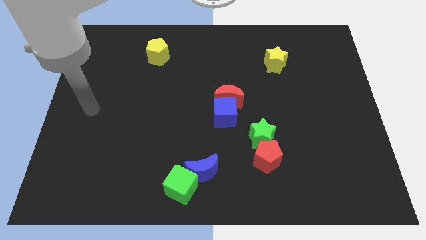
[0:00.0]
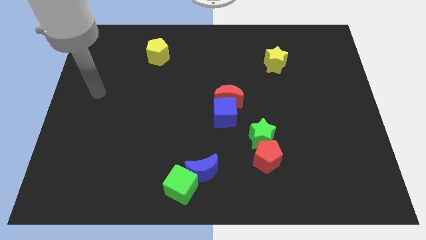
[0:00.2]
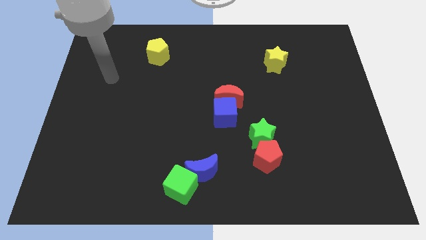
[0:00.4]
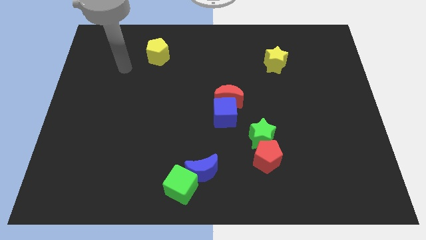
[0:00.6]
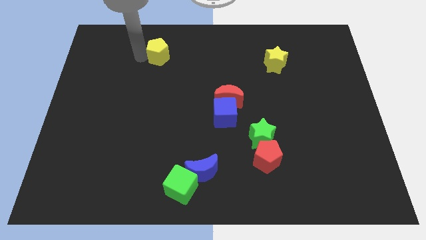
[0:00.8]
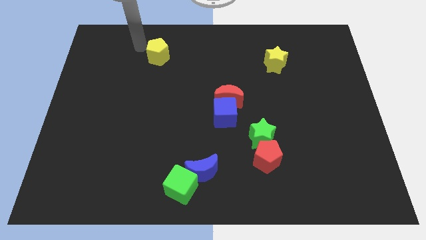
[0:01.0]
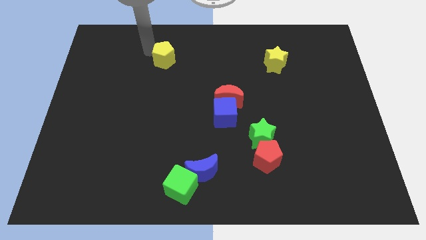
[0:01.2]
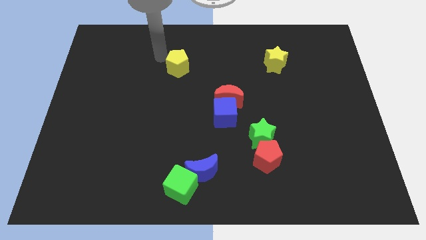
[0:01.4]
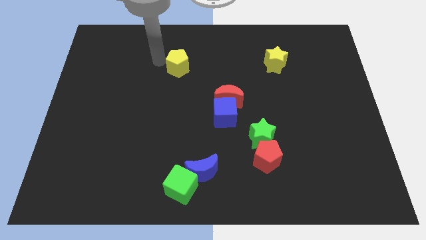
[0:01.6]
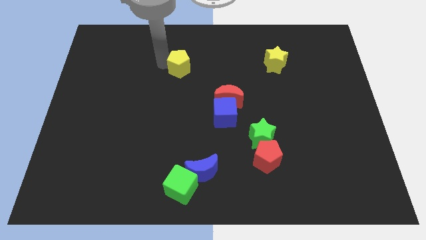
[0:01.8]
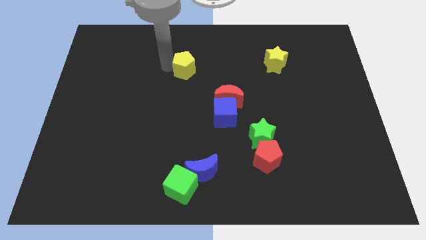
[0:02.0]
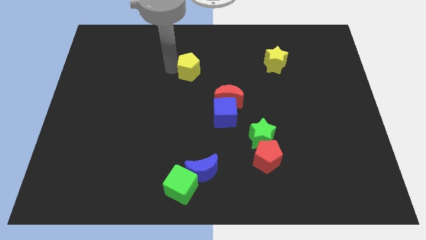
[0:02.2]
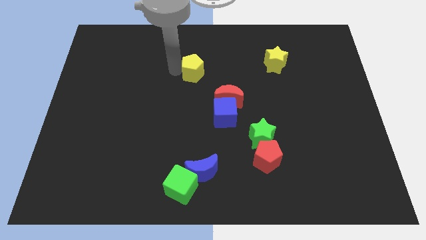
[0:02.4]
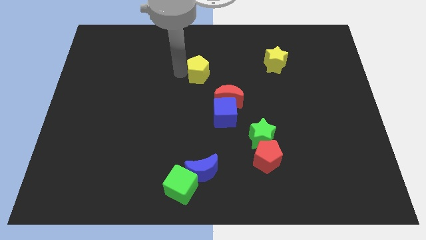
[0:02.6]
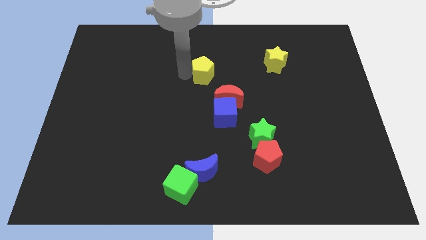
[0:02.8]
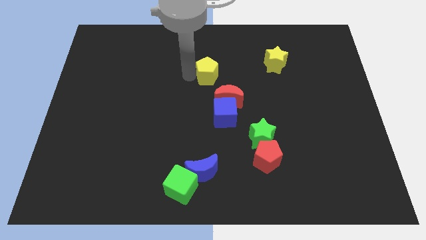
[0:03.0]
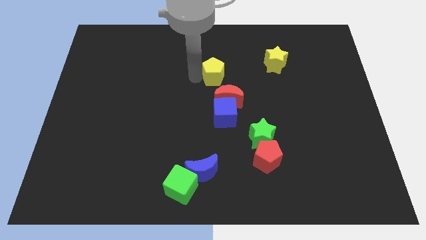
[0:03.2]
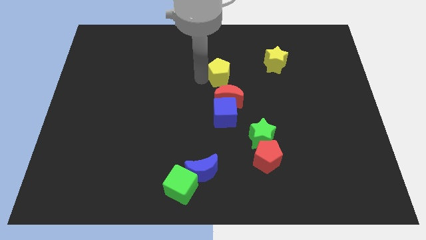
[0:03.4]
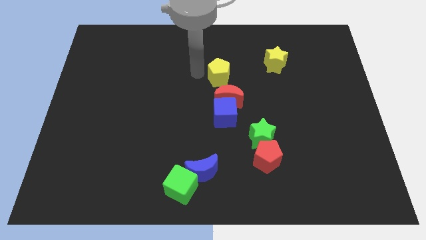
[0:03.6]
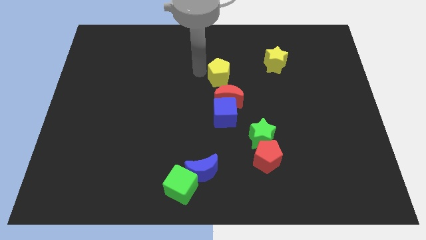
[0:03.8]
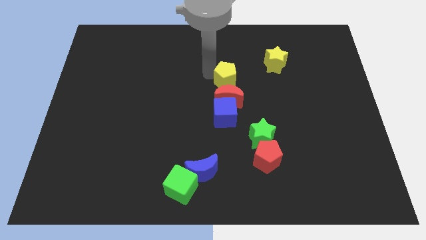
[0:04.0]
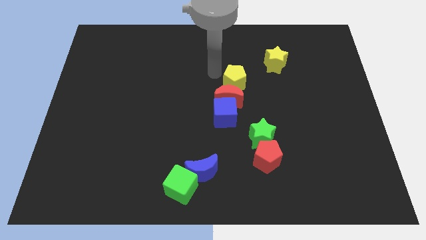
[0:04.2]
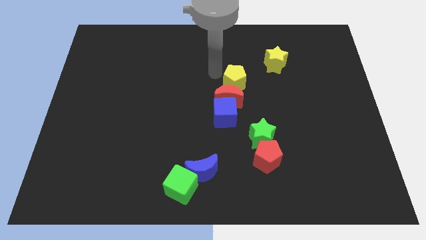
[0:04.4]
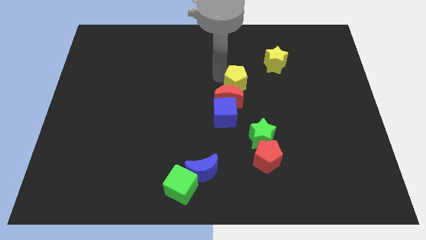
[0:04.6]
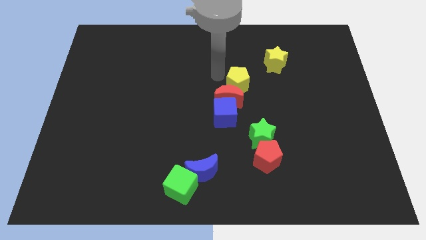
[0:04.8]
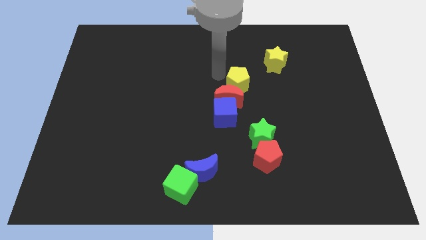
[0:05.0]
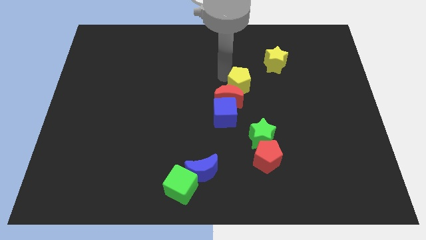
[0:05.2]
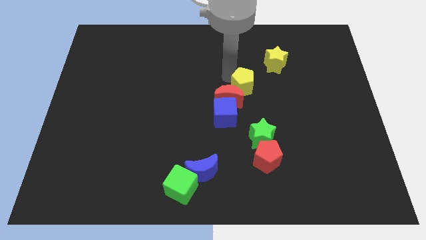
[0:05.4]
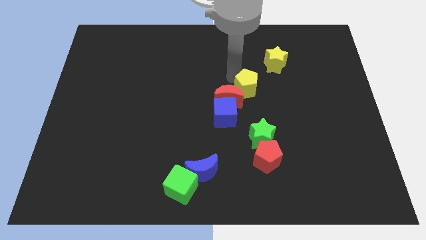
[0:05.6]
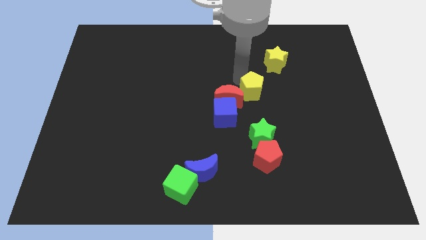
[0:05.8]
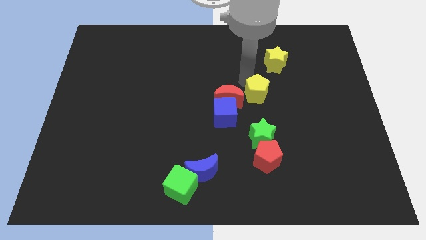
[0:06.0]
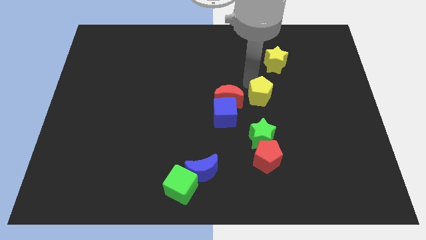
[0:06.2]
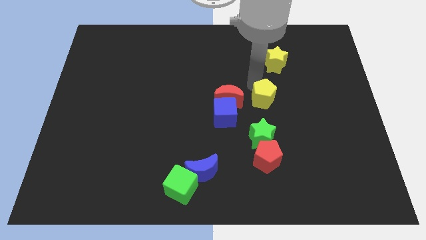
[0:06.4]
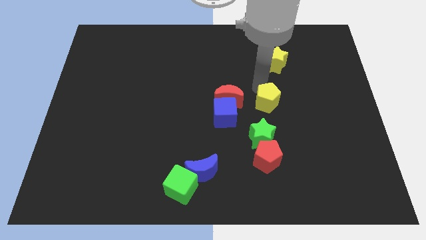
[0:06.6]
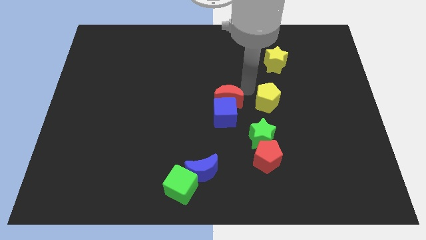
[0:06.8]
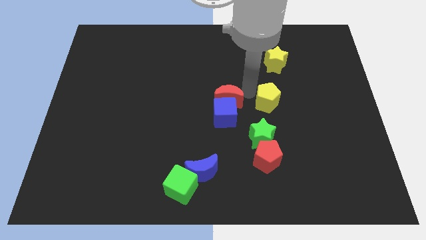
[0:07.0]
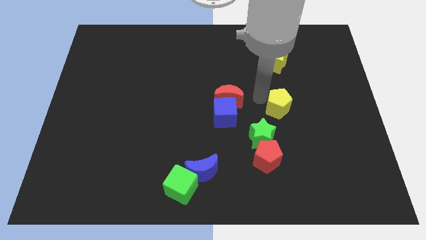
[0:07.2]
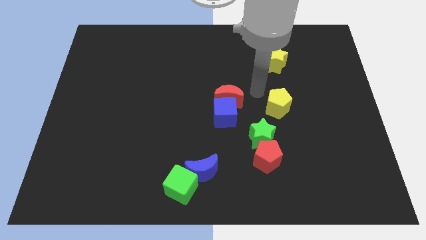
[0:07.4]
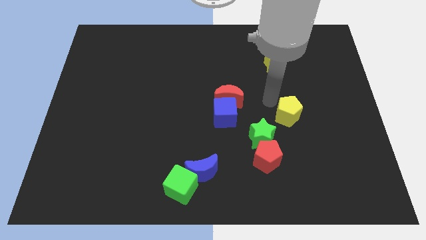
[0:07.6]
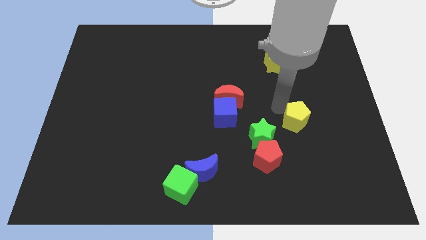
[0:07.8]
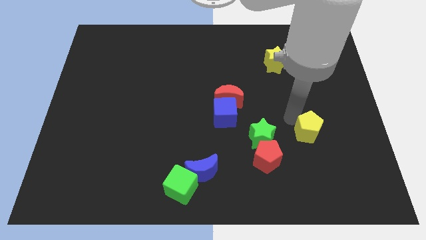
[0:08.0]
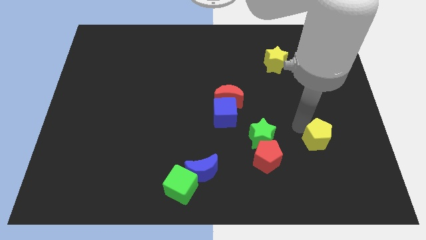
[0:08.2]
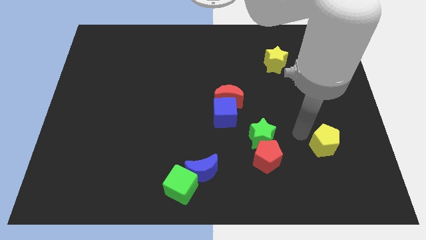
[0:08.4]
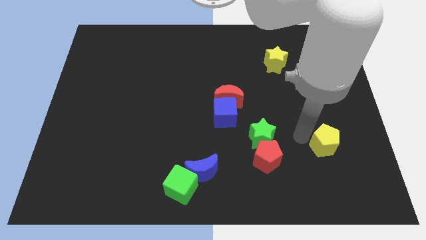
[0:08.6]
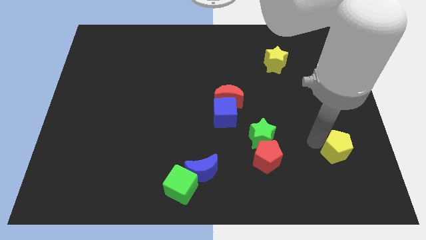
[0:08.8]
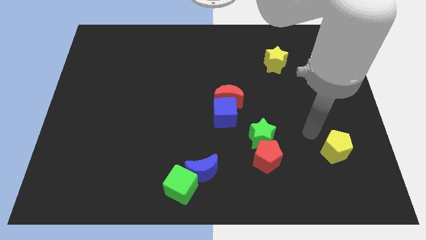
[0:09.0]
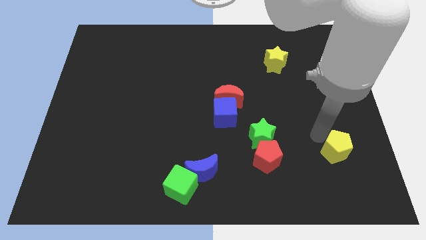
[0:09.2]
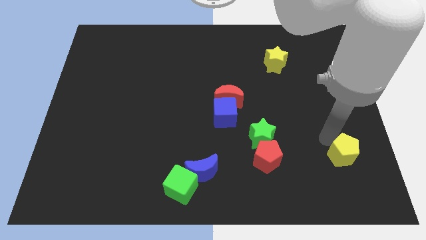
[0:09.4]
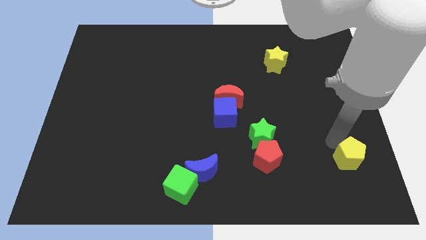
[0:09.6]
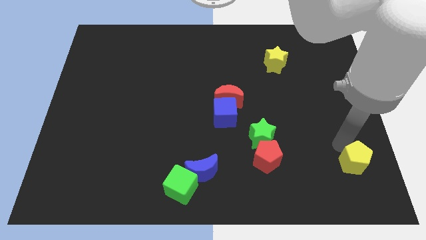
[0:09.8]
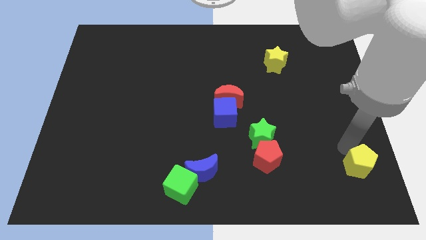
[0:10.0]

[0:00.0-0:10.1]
put the yellow pentagon to the bottom right of the board

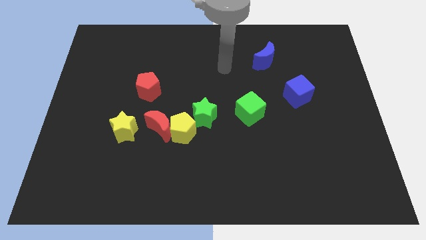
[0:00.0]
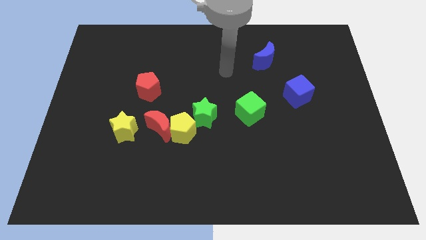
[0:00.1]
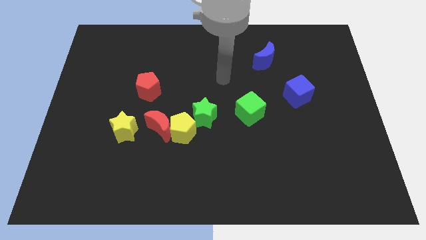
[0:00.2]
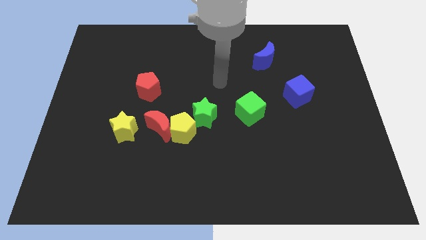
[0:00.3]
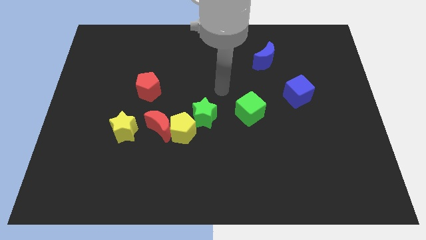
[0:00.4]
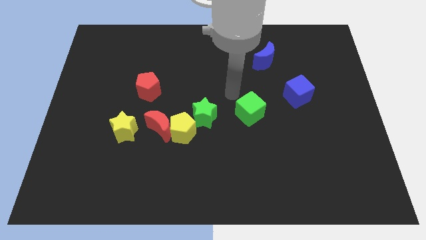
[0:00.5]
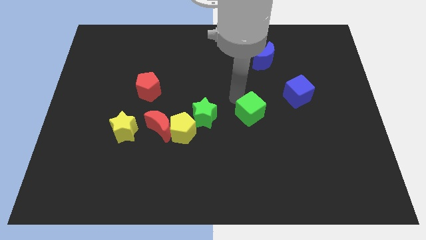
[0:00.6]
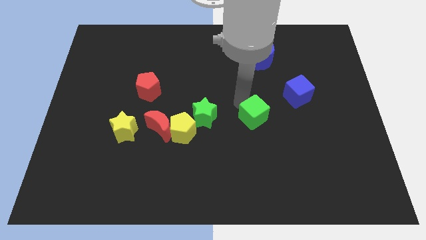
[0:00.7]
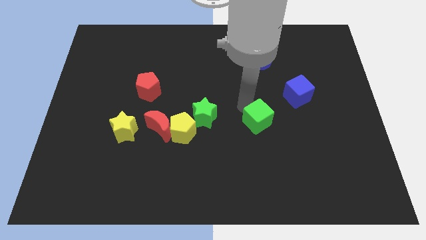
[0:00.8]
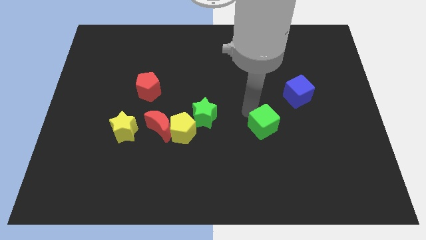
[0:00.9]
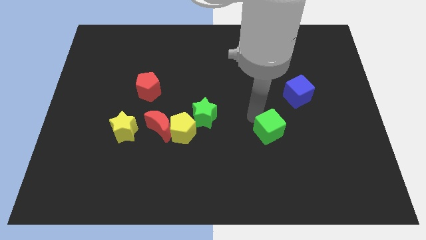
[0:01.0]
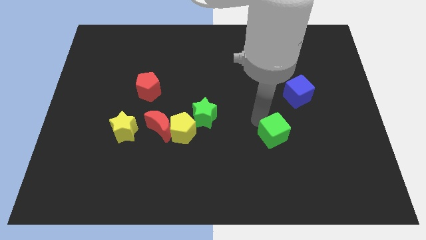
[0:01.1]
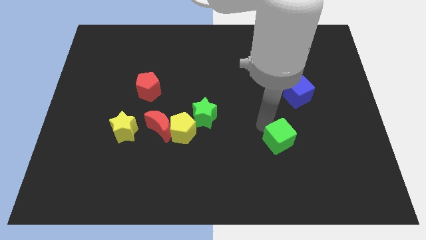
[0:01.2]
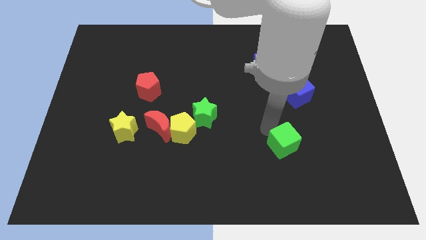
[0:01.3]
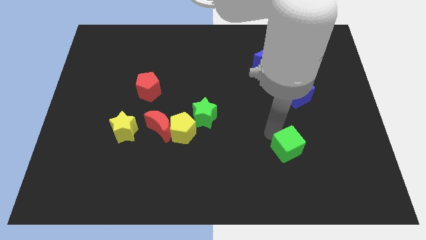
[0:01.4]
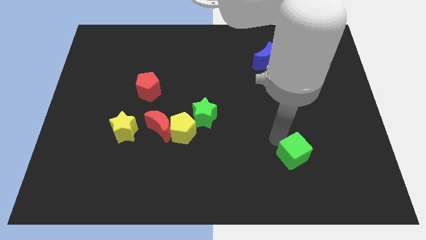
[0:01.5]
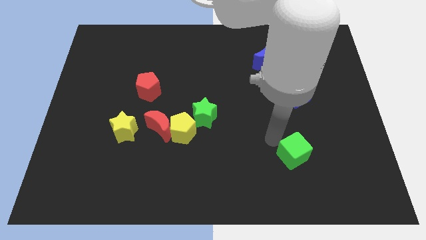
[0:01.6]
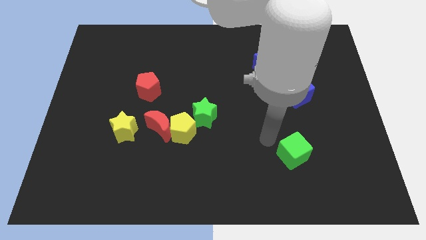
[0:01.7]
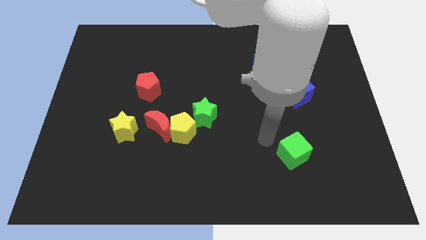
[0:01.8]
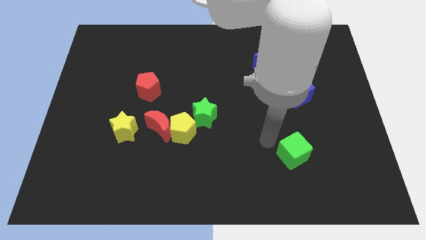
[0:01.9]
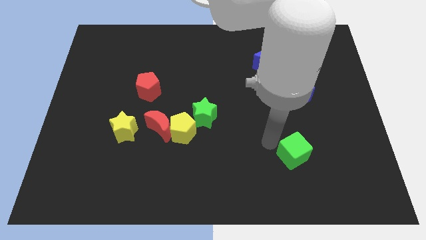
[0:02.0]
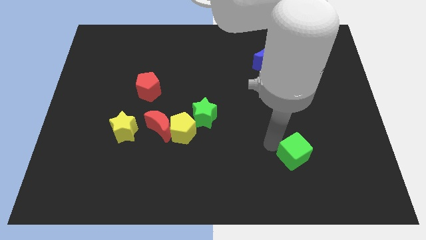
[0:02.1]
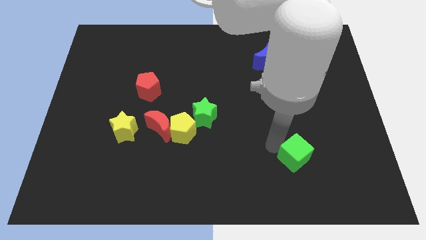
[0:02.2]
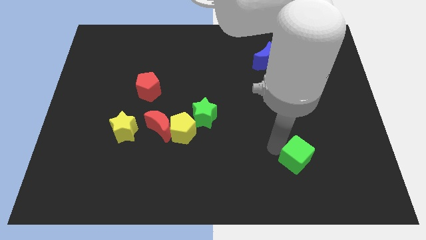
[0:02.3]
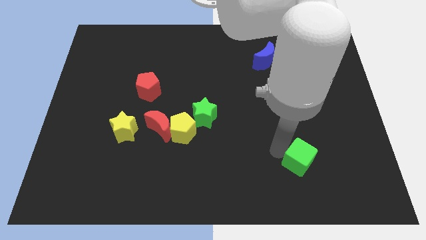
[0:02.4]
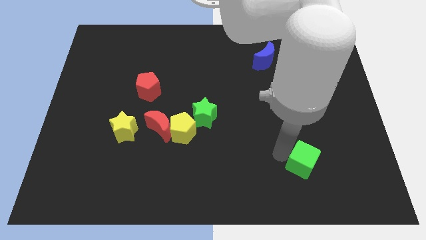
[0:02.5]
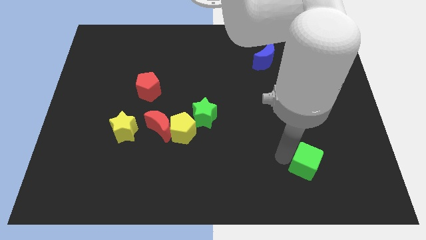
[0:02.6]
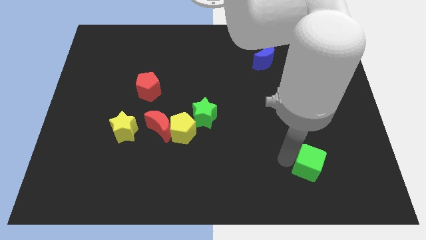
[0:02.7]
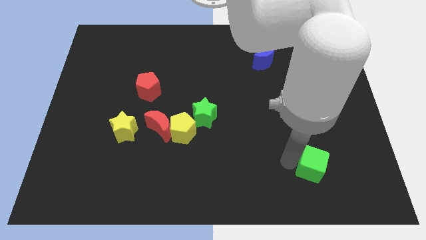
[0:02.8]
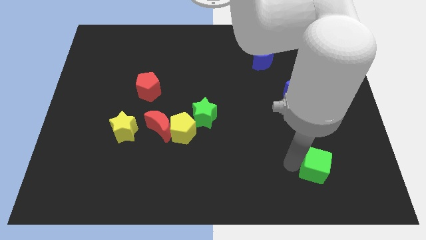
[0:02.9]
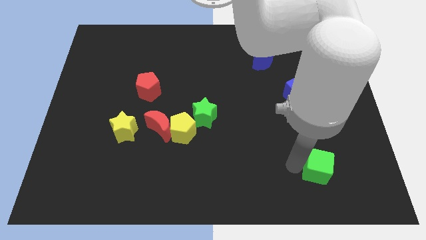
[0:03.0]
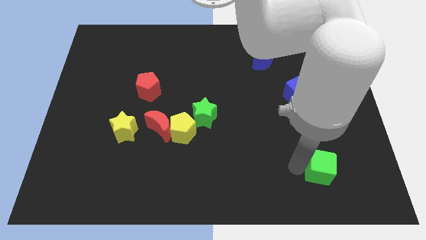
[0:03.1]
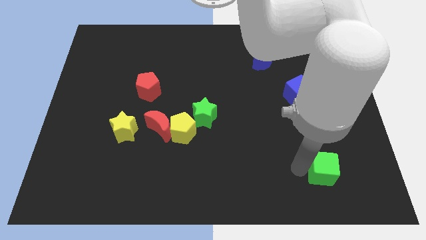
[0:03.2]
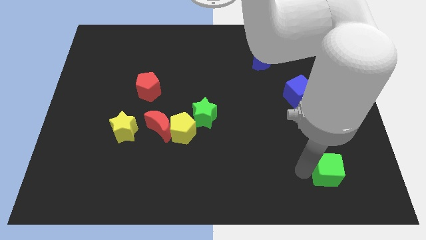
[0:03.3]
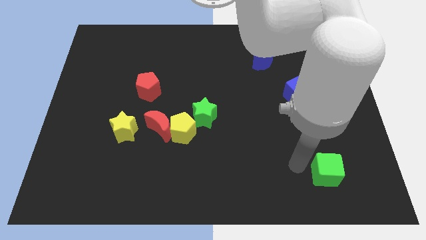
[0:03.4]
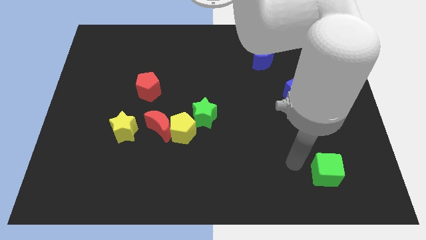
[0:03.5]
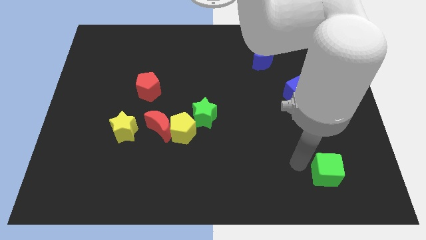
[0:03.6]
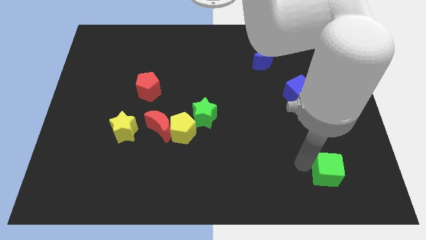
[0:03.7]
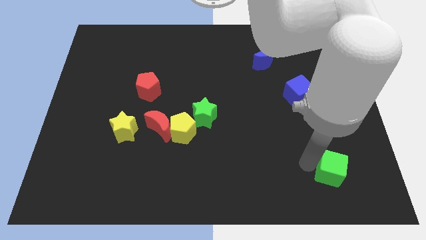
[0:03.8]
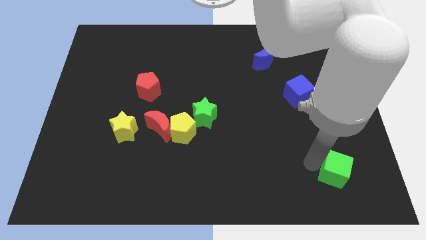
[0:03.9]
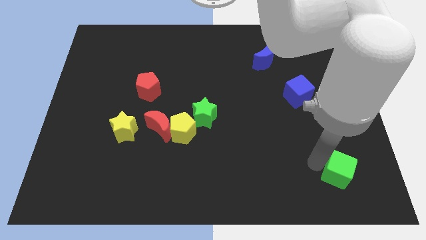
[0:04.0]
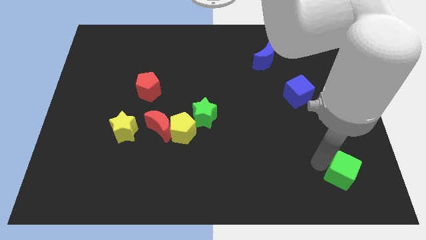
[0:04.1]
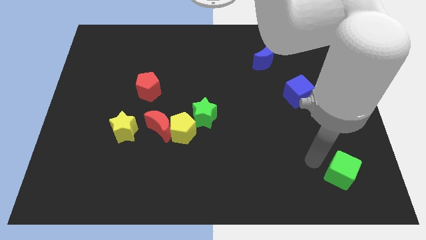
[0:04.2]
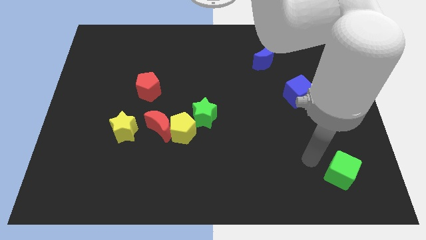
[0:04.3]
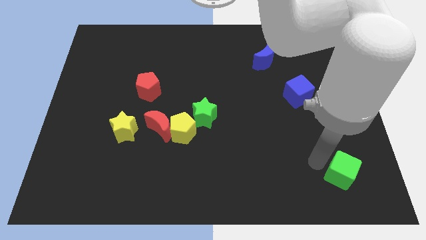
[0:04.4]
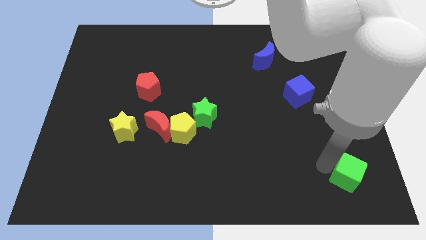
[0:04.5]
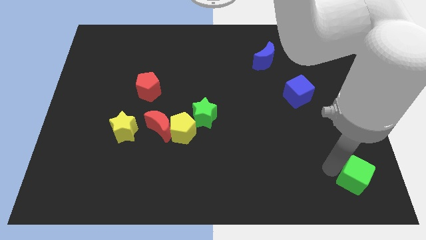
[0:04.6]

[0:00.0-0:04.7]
slide the green cube to the lower right corner
